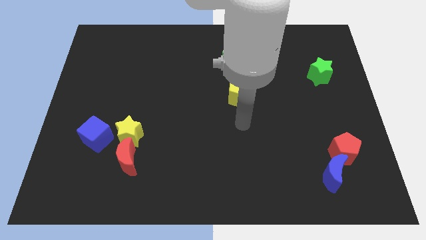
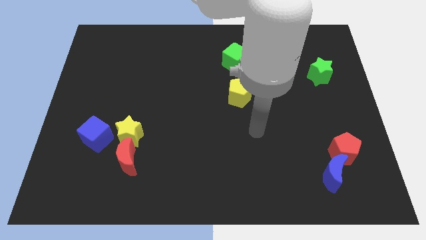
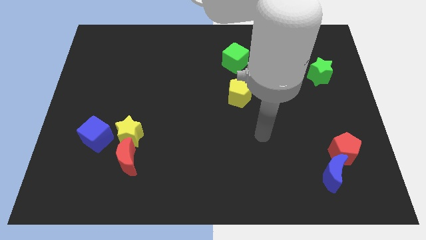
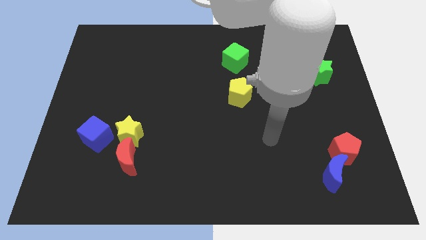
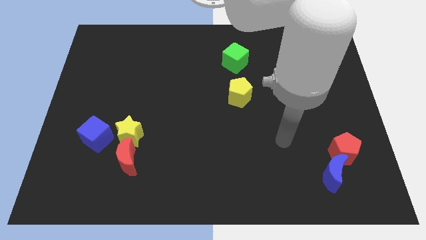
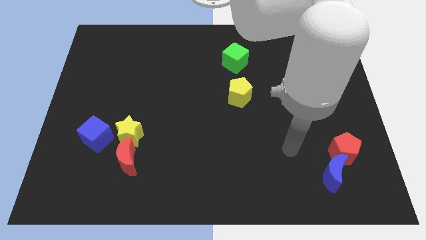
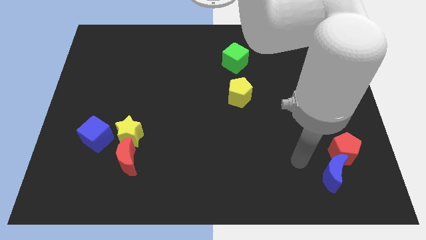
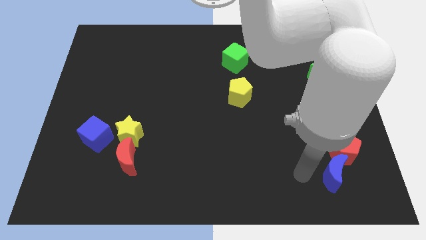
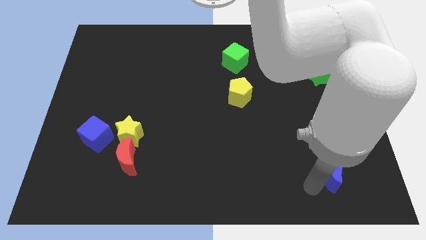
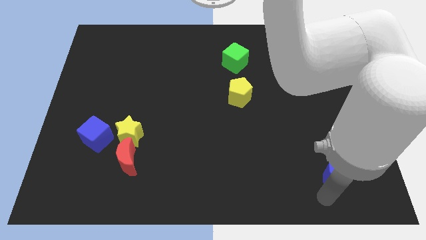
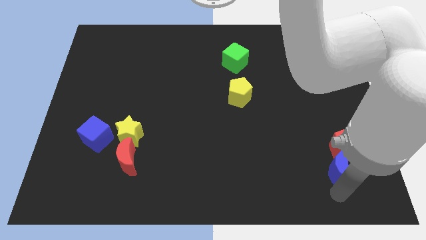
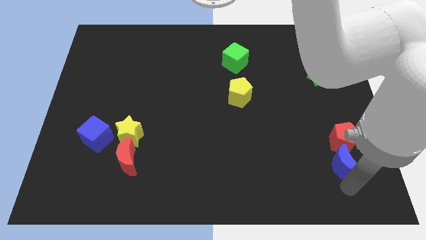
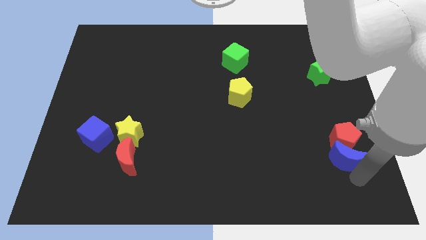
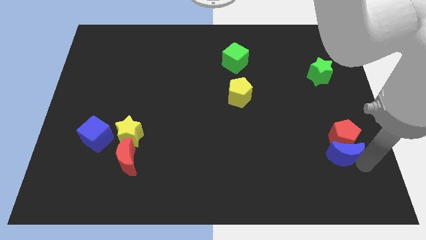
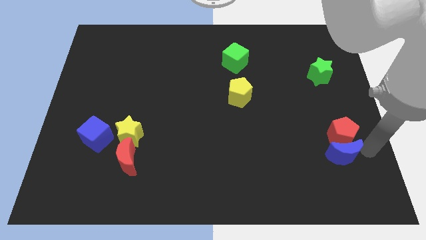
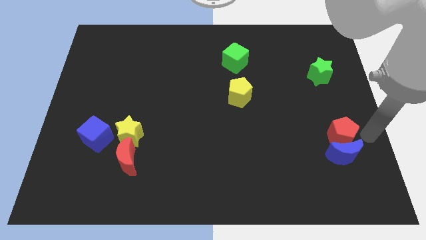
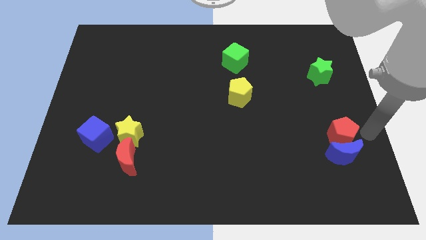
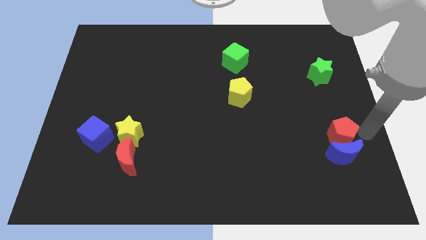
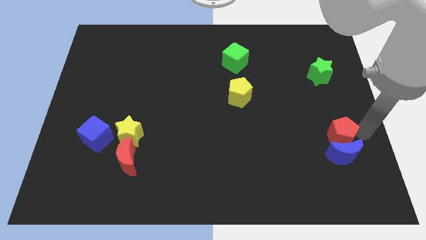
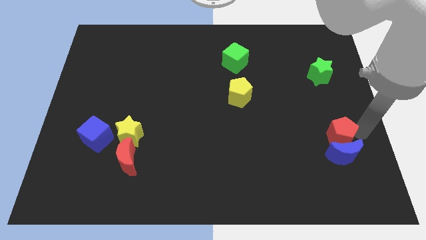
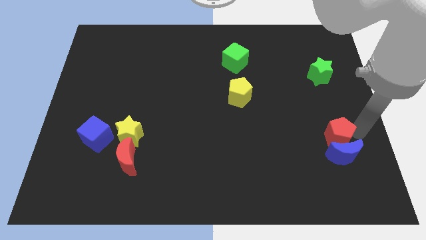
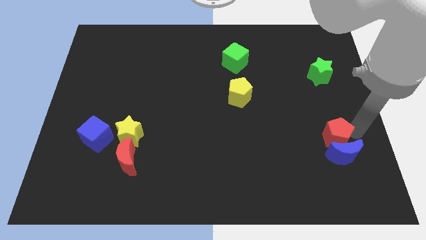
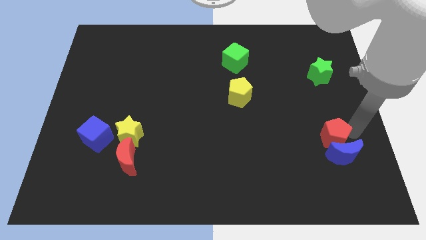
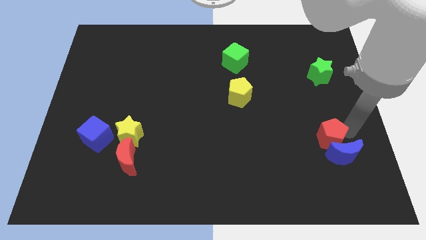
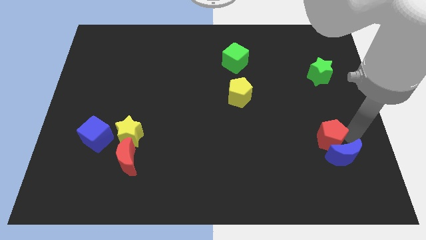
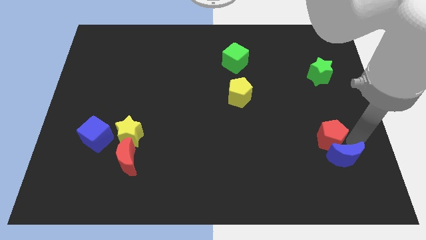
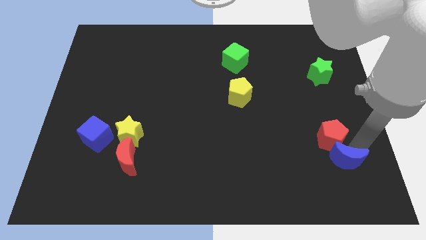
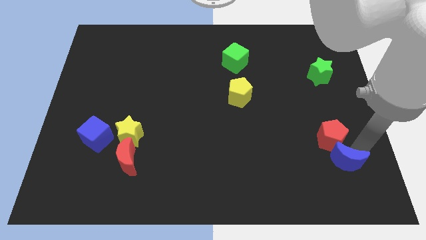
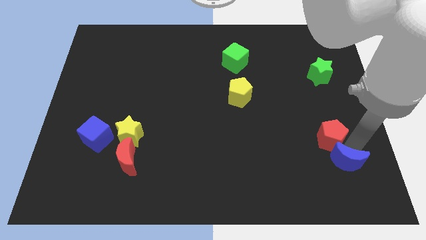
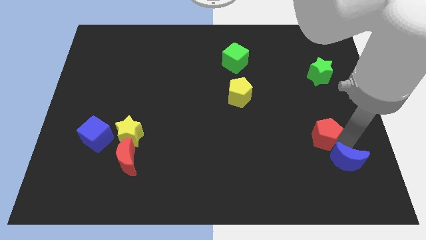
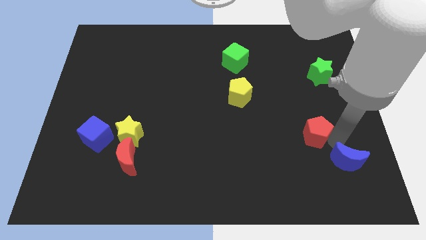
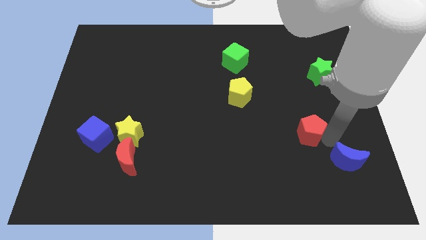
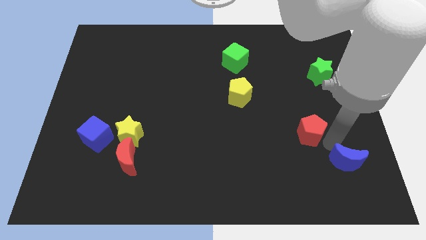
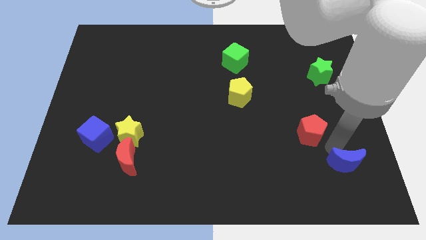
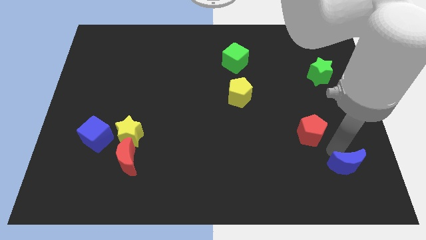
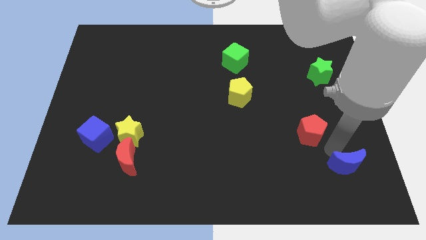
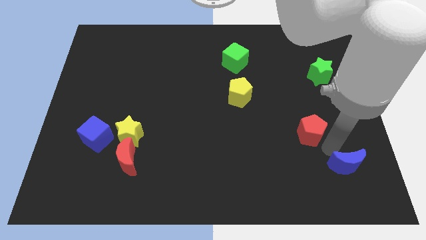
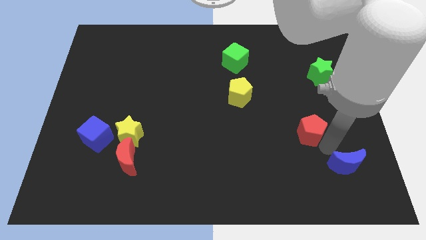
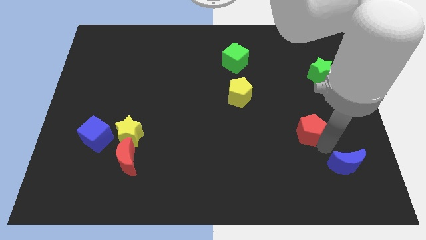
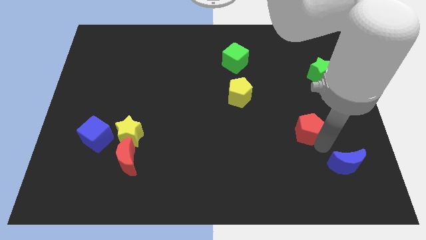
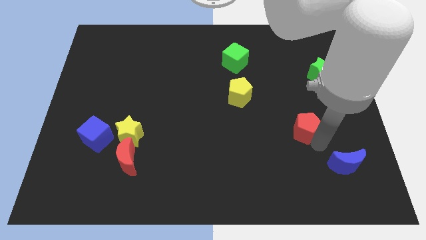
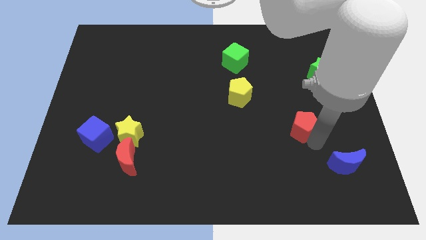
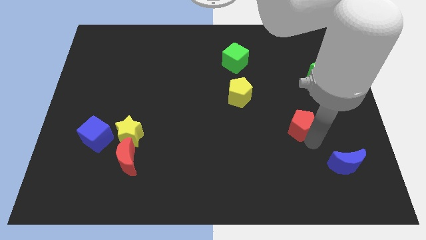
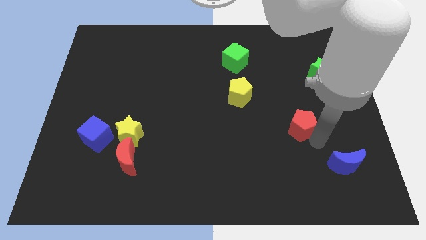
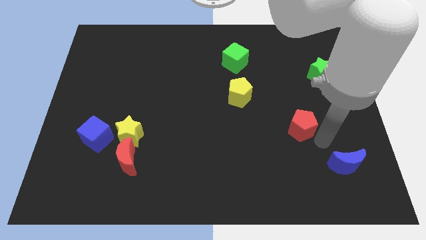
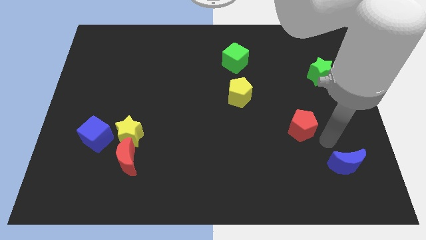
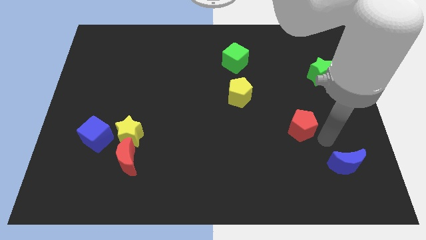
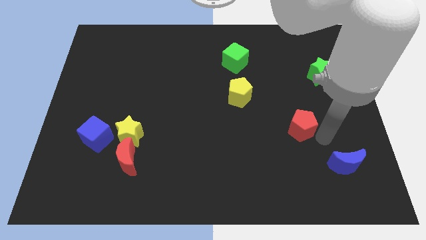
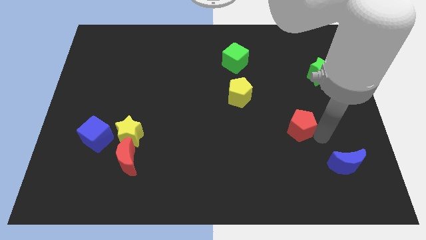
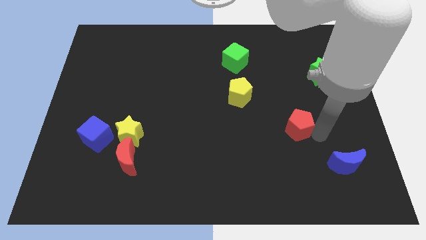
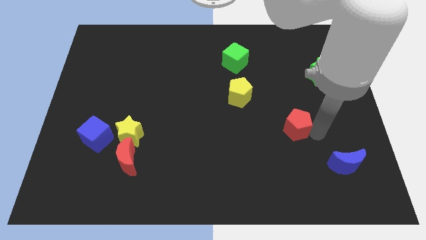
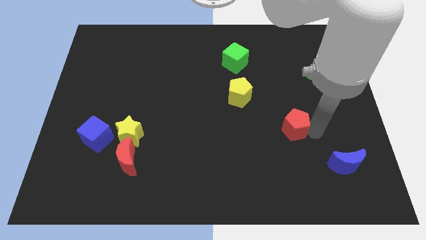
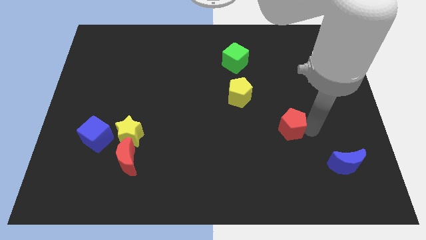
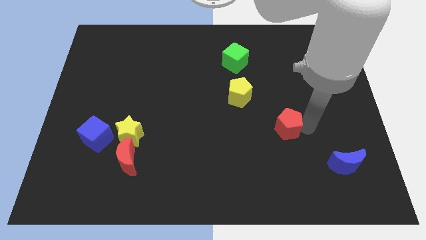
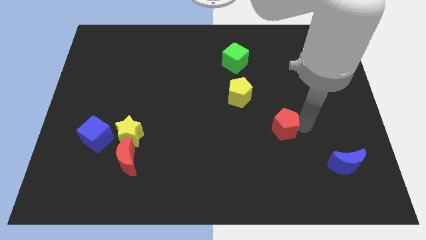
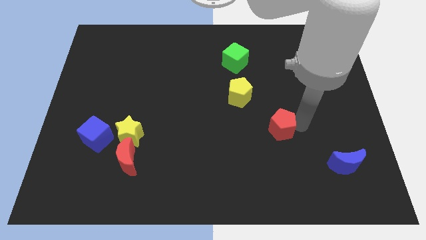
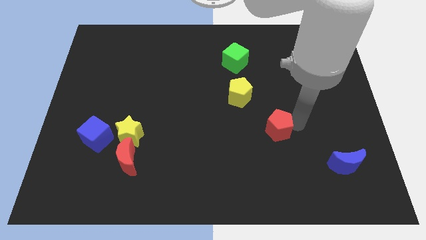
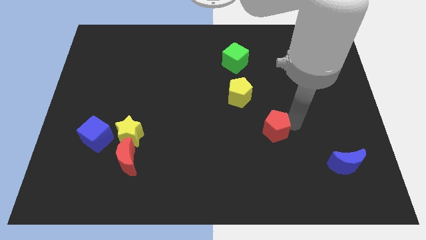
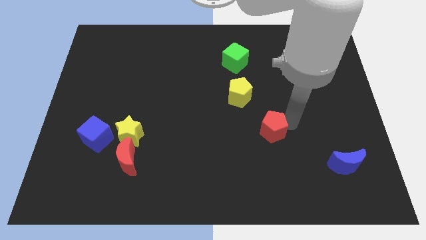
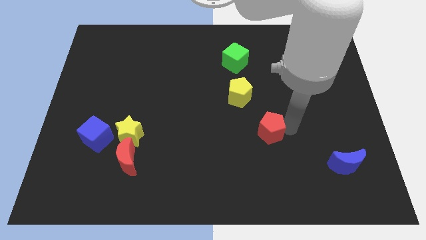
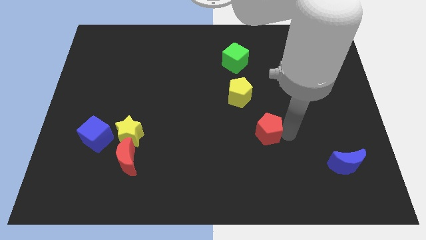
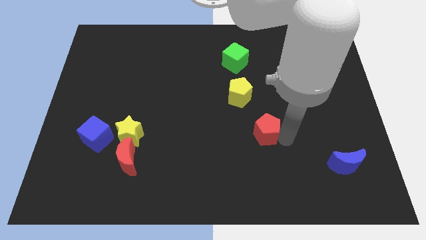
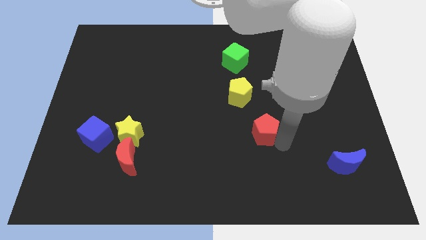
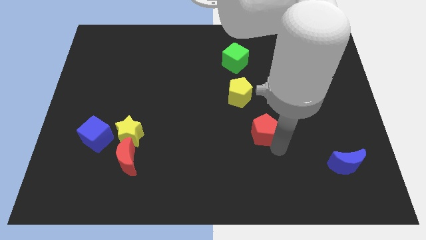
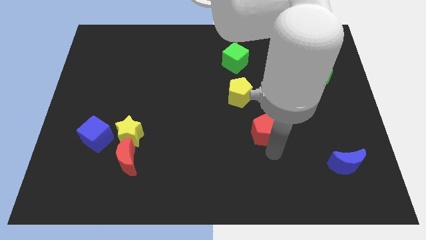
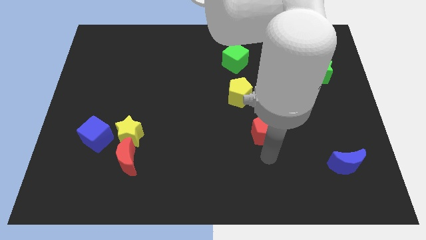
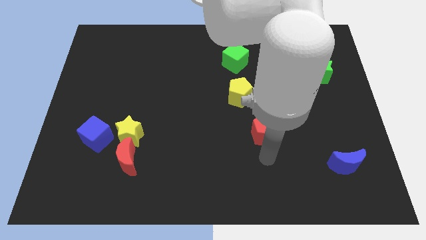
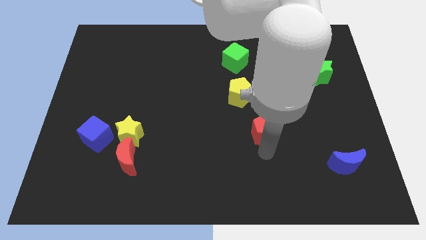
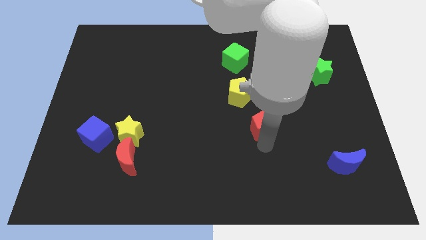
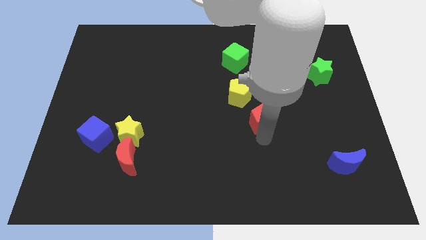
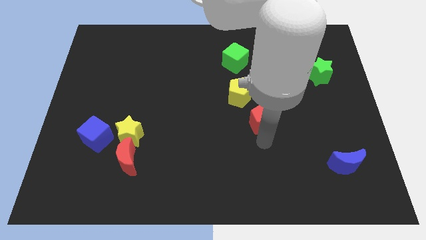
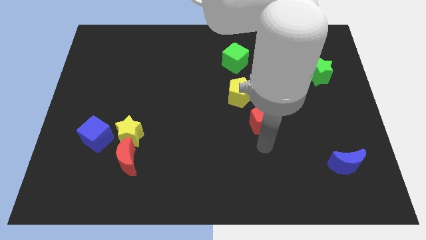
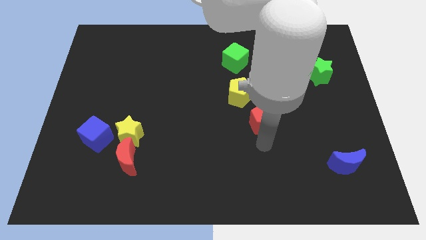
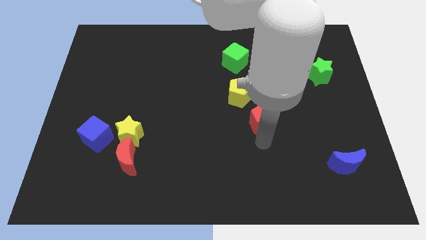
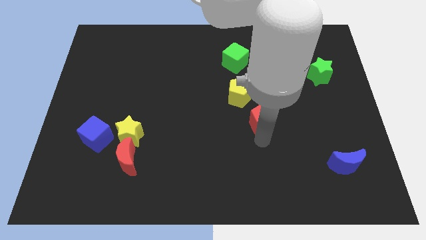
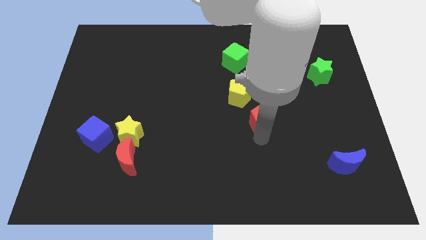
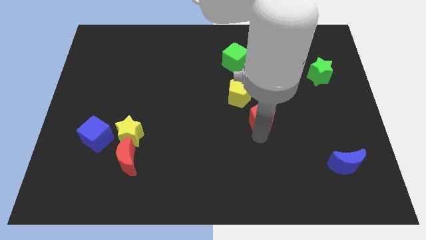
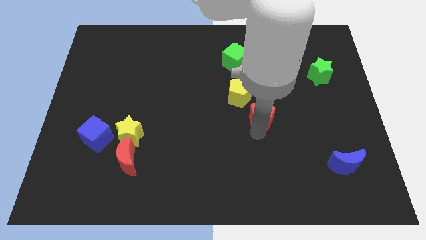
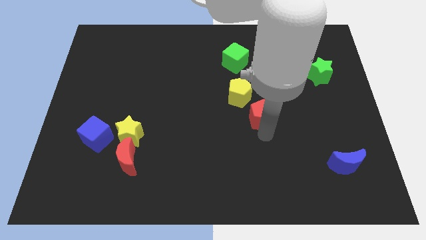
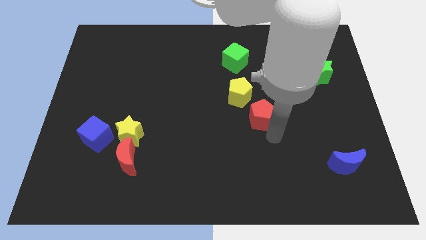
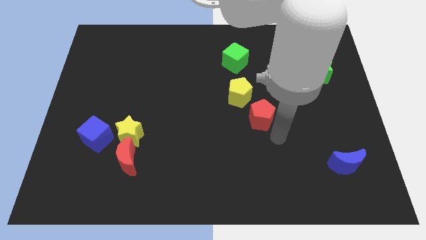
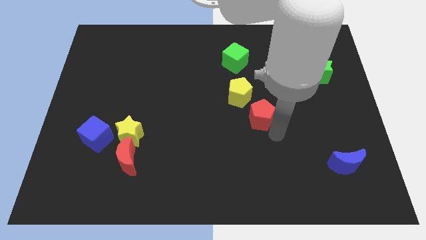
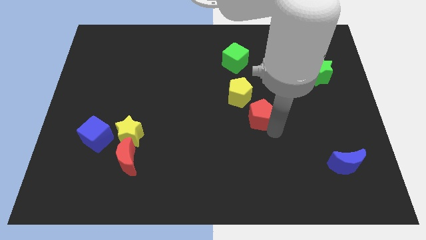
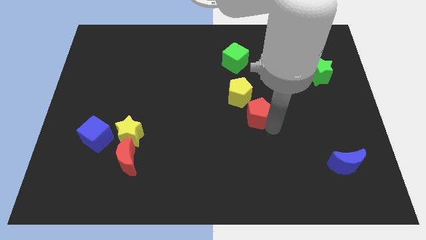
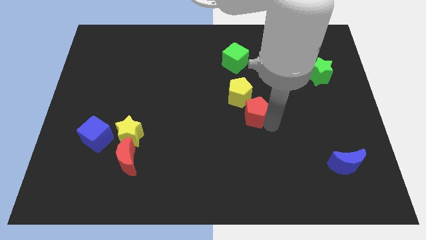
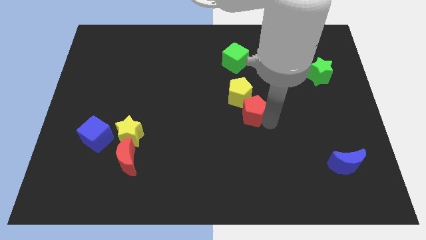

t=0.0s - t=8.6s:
move the red pentagon close to the yellow pentagon
